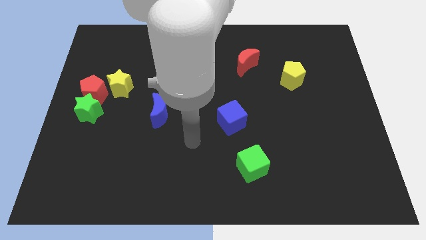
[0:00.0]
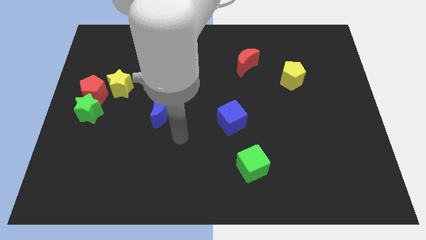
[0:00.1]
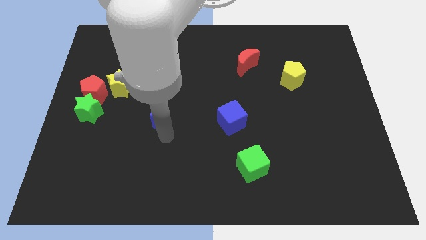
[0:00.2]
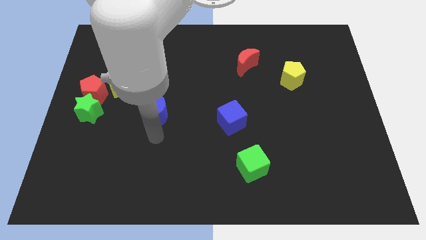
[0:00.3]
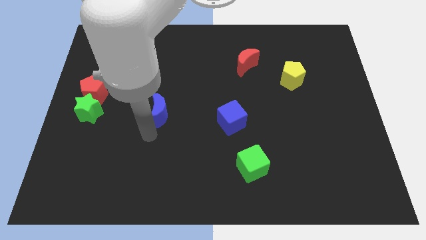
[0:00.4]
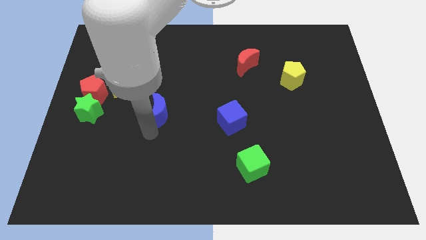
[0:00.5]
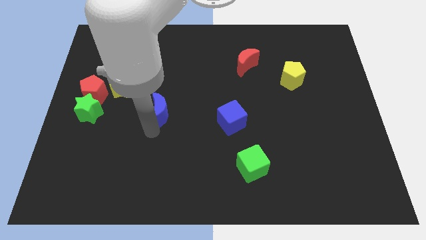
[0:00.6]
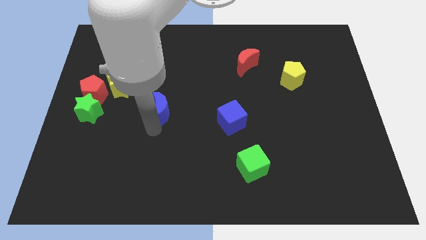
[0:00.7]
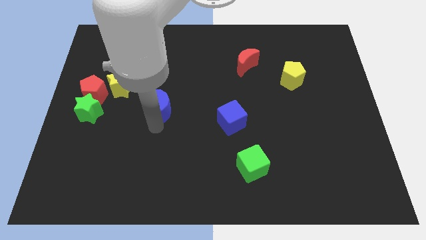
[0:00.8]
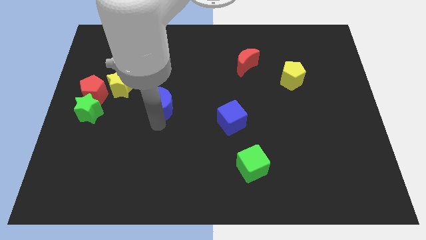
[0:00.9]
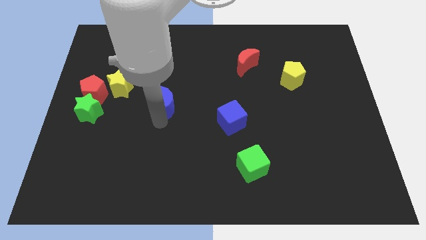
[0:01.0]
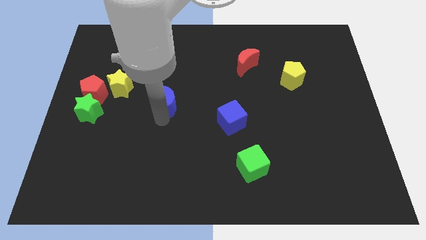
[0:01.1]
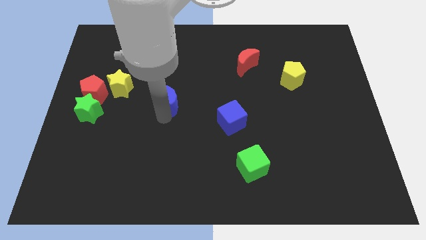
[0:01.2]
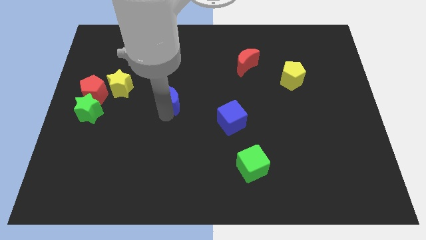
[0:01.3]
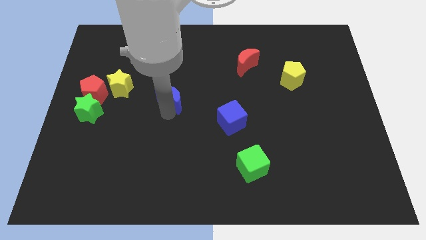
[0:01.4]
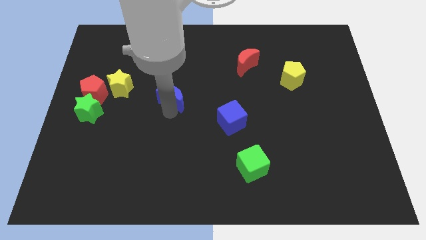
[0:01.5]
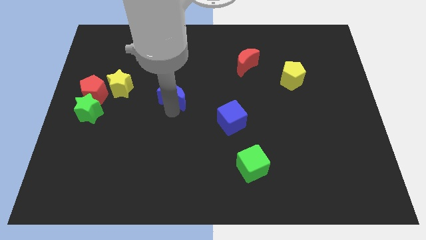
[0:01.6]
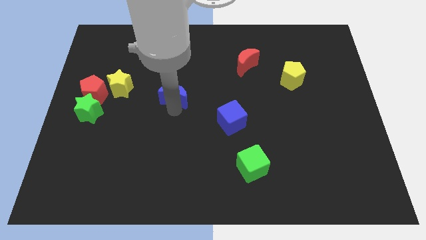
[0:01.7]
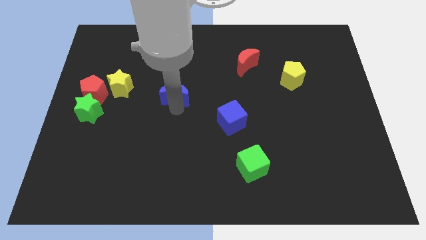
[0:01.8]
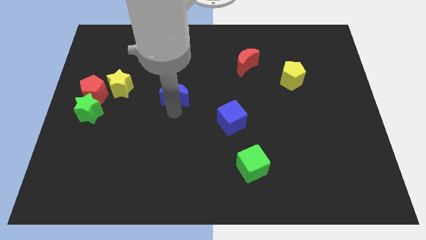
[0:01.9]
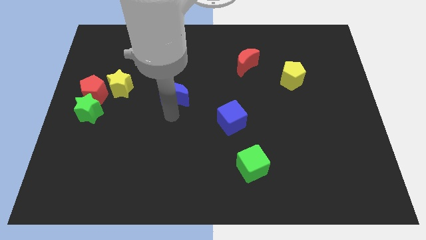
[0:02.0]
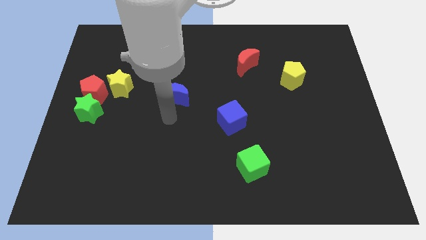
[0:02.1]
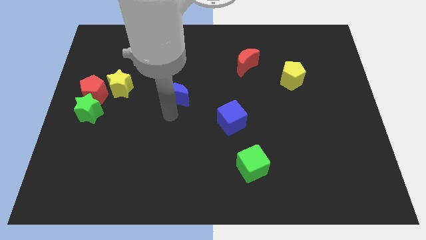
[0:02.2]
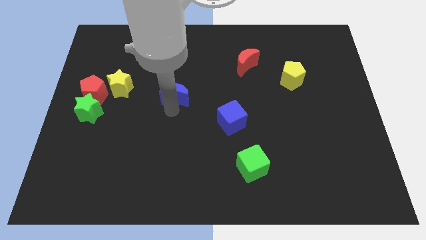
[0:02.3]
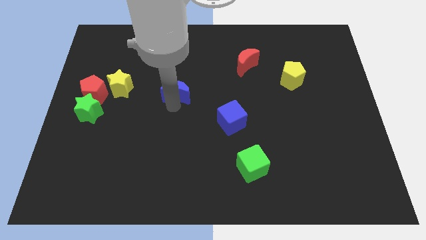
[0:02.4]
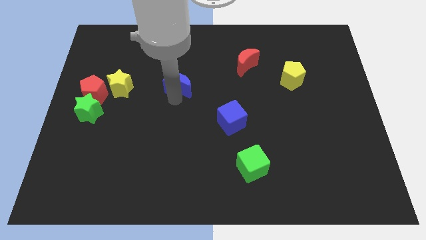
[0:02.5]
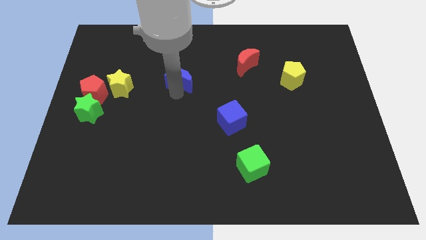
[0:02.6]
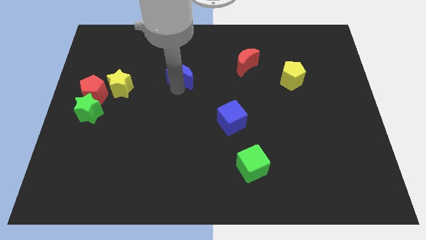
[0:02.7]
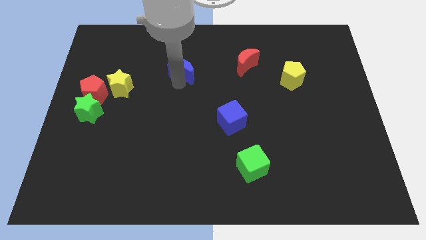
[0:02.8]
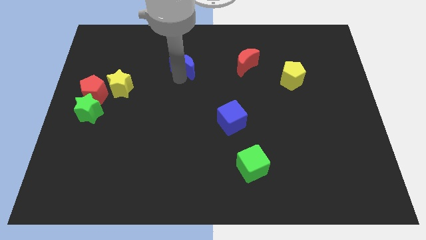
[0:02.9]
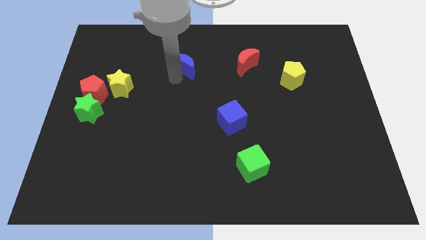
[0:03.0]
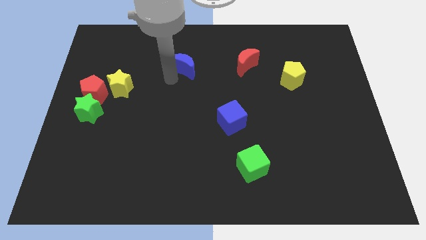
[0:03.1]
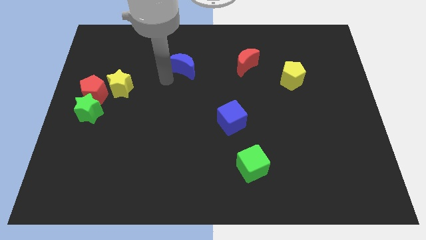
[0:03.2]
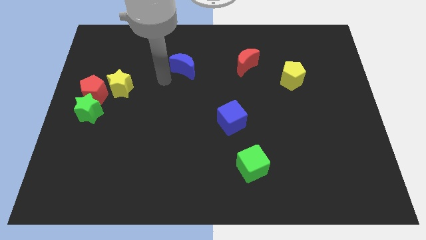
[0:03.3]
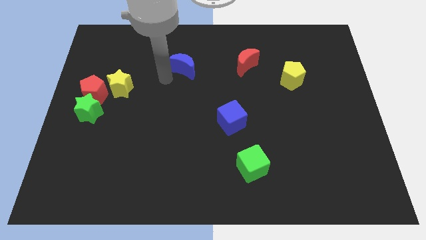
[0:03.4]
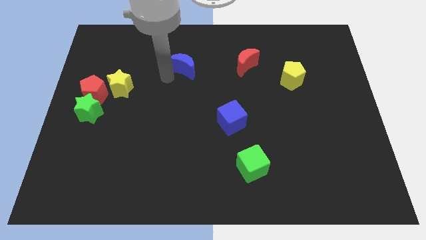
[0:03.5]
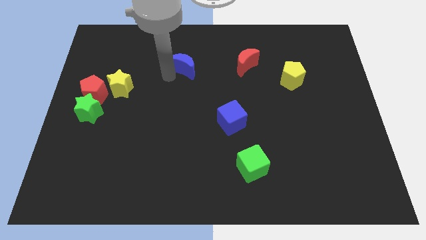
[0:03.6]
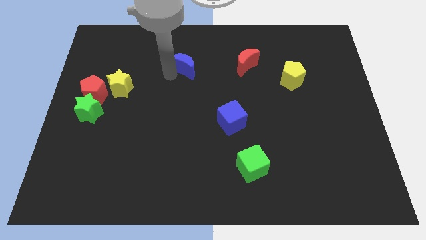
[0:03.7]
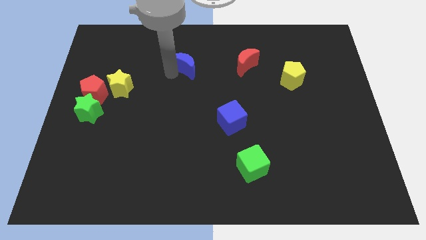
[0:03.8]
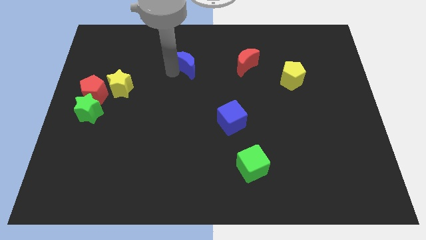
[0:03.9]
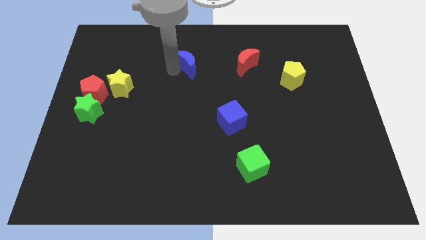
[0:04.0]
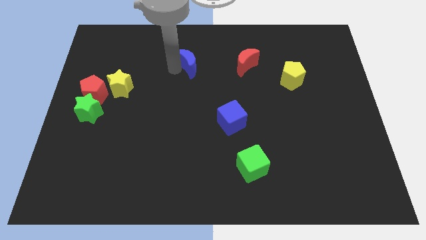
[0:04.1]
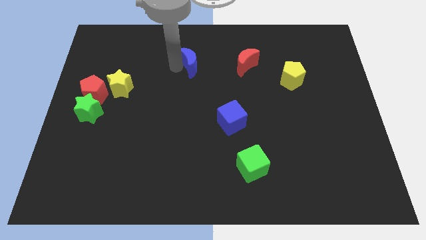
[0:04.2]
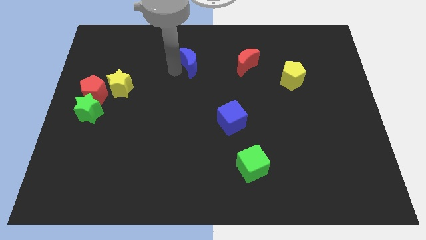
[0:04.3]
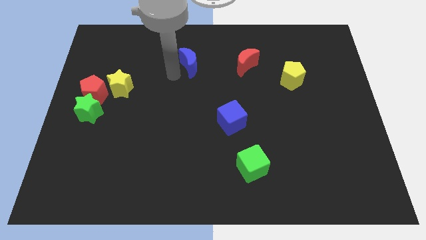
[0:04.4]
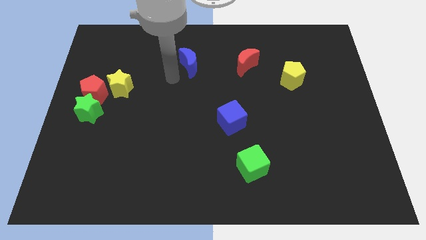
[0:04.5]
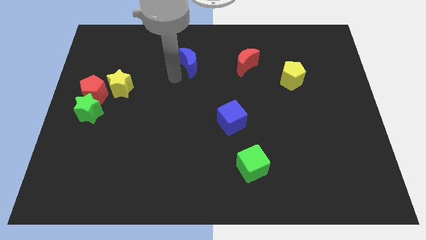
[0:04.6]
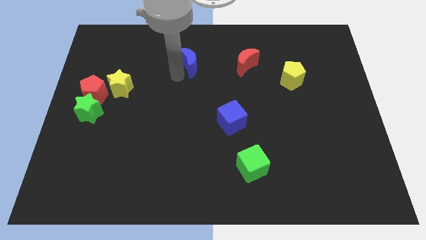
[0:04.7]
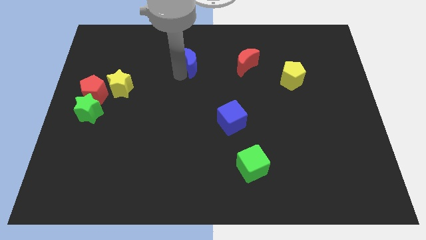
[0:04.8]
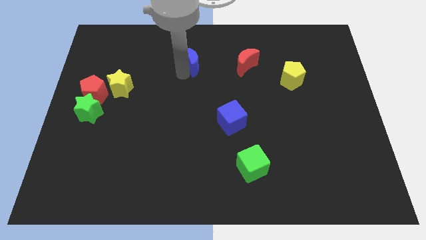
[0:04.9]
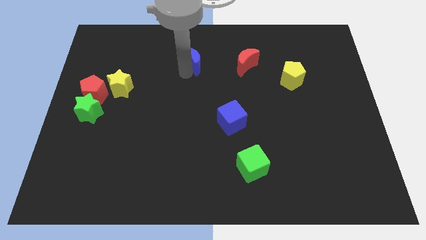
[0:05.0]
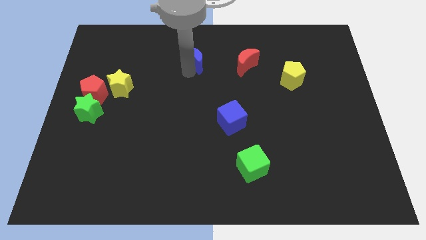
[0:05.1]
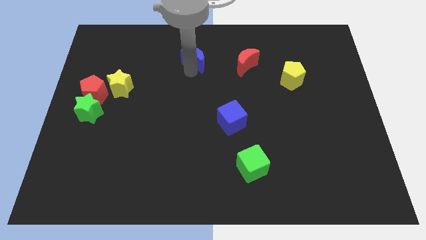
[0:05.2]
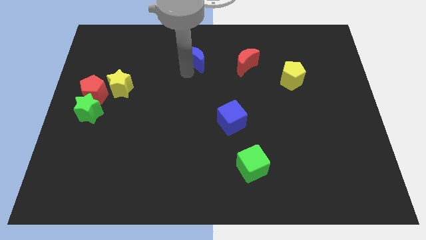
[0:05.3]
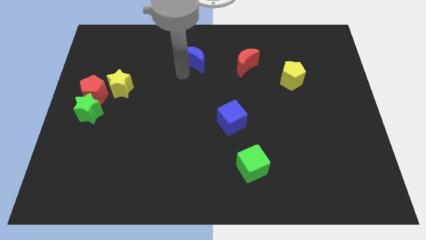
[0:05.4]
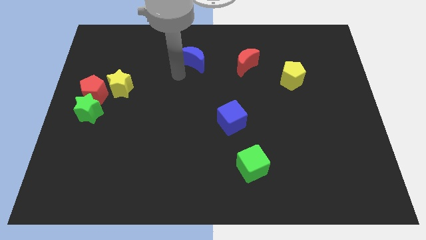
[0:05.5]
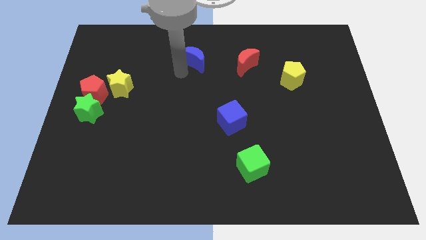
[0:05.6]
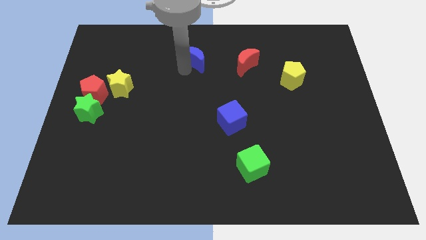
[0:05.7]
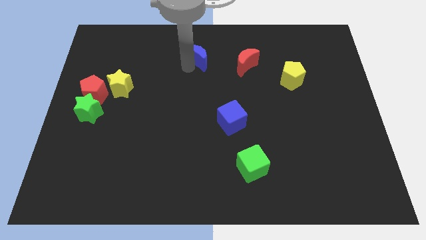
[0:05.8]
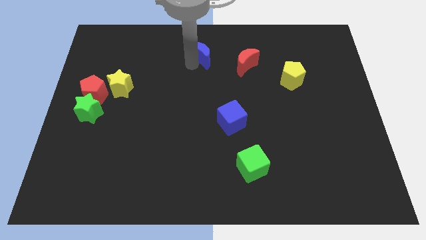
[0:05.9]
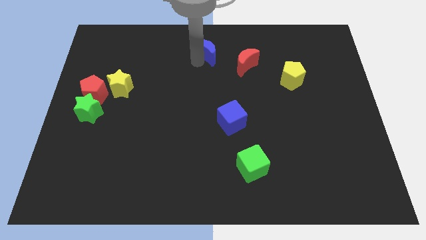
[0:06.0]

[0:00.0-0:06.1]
move the blue moon to the top
